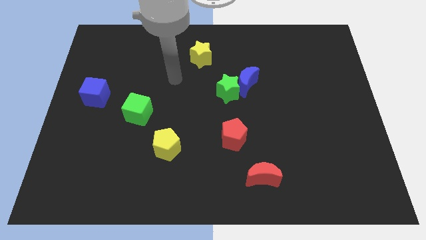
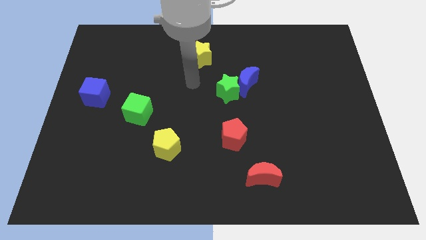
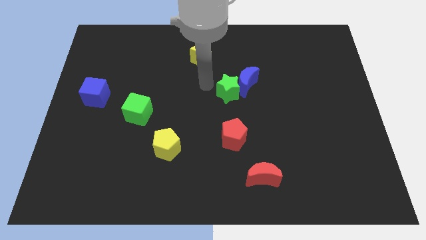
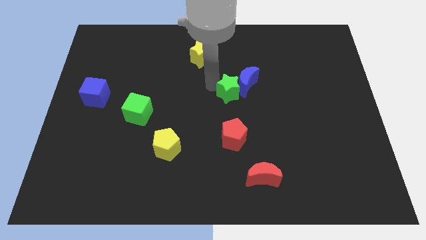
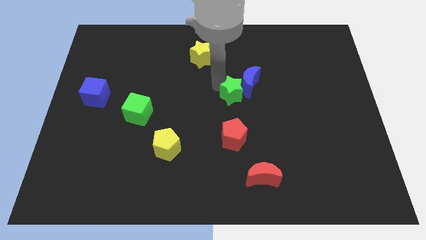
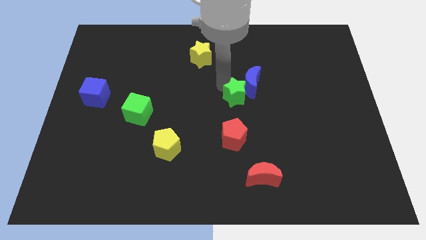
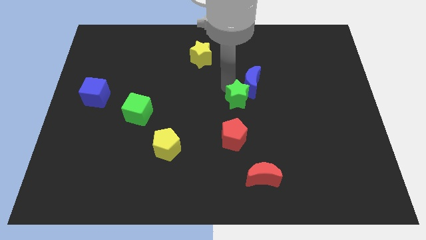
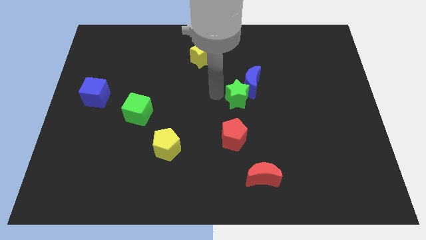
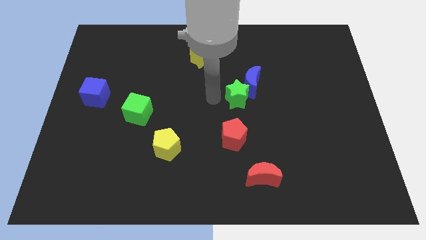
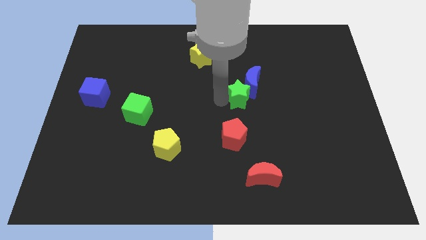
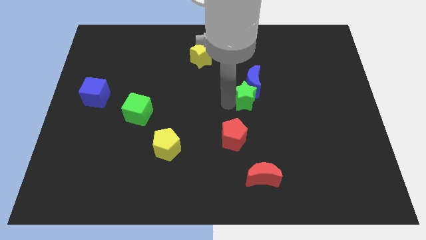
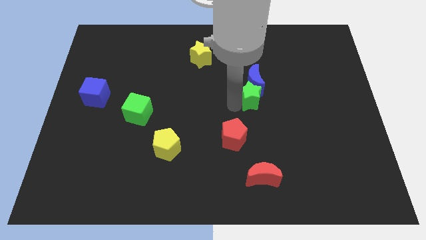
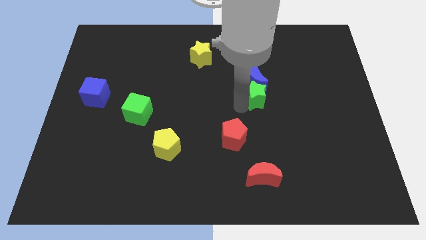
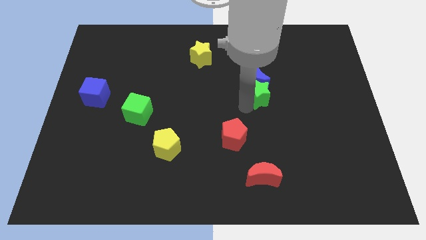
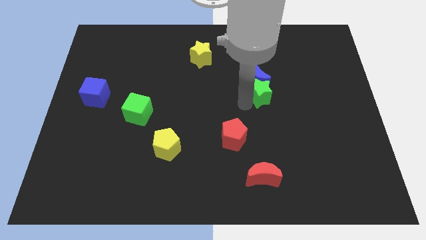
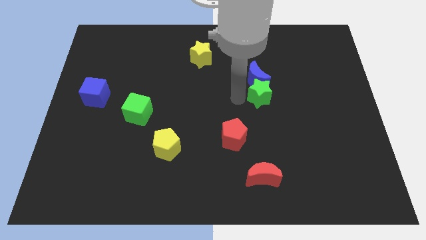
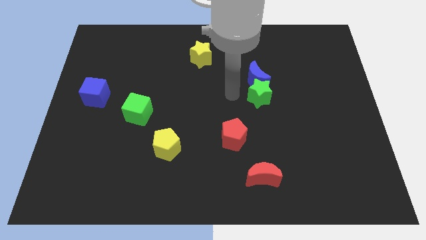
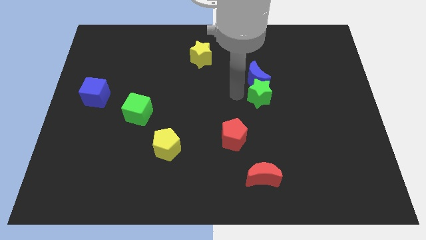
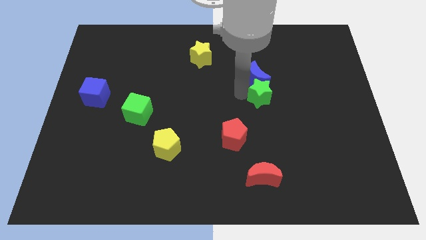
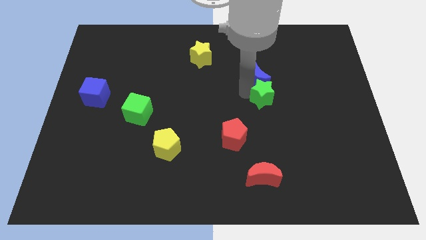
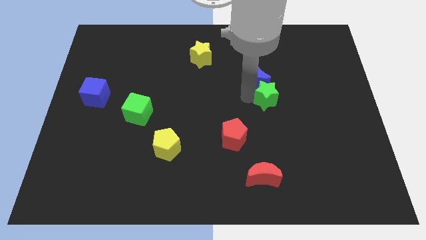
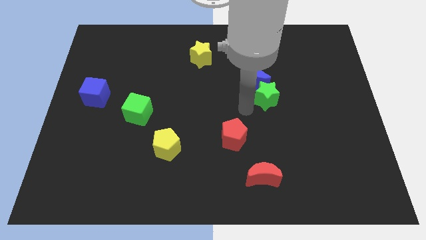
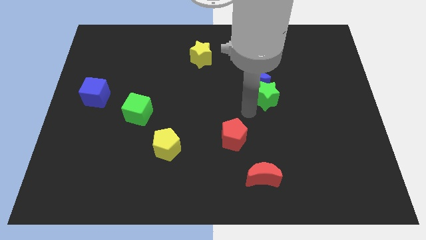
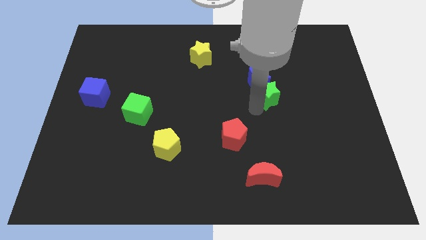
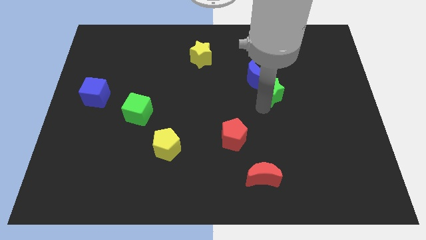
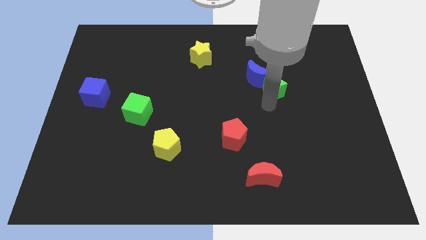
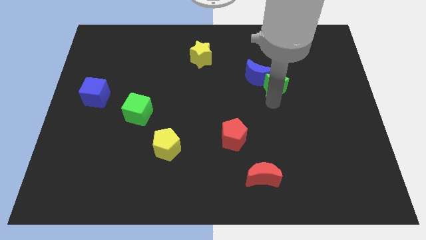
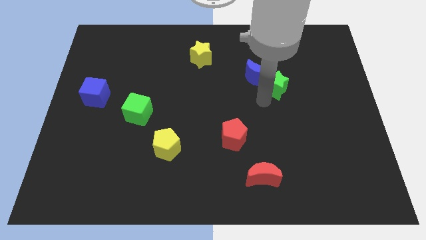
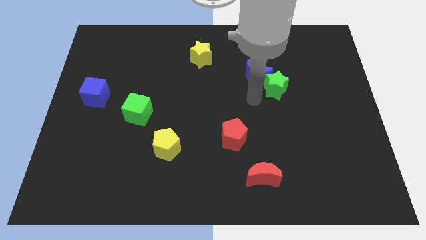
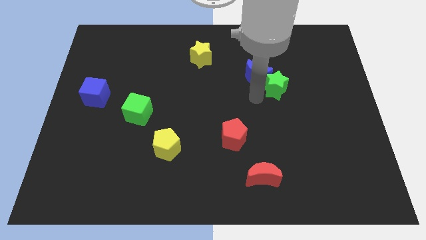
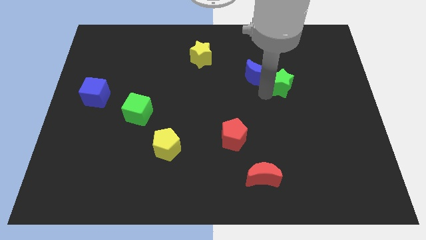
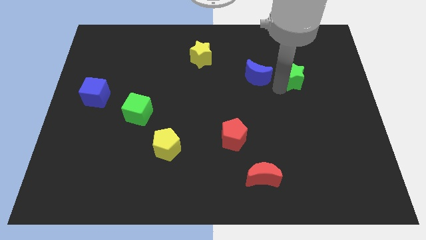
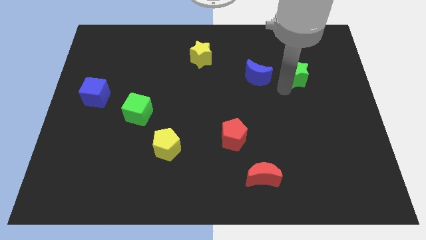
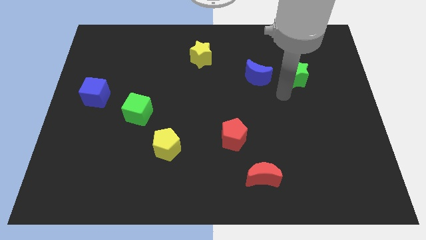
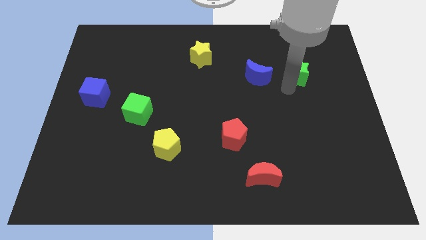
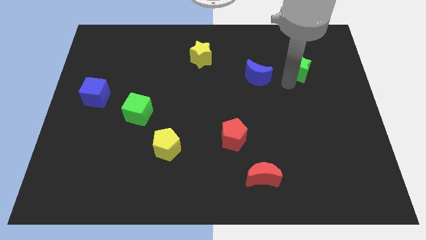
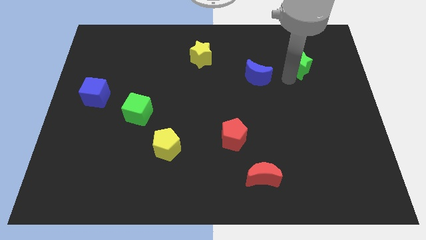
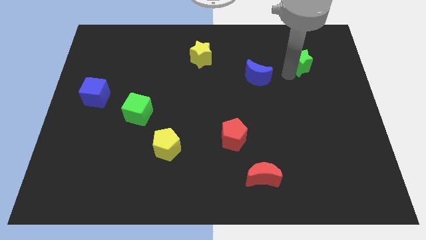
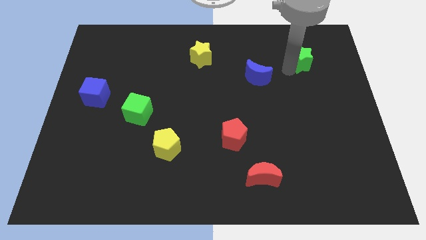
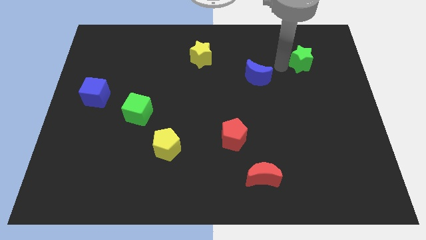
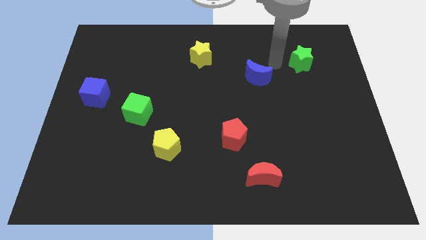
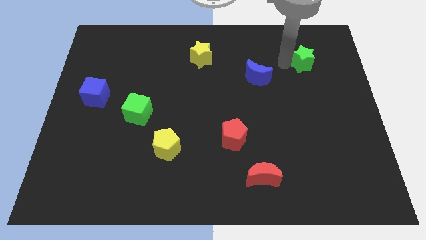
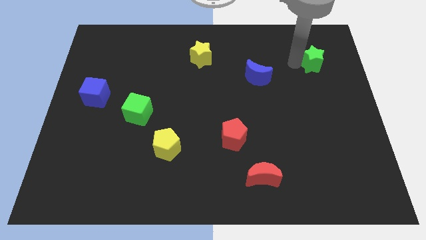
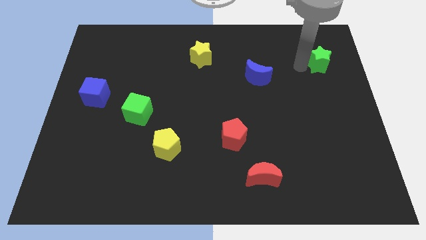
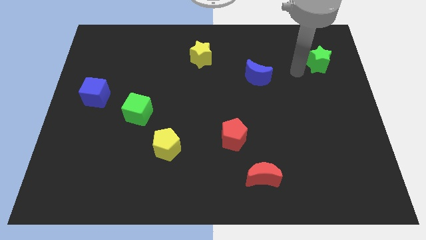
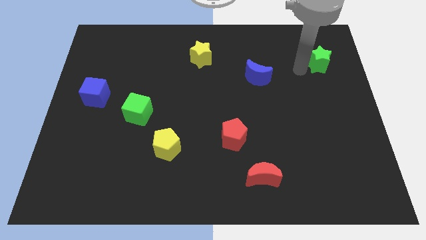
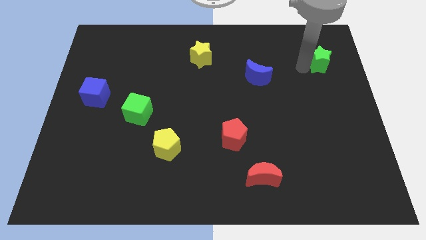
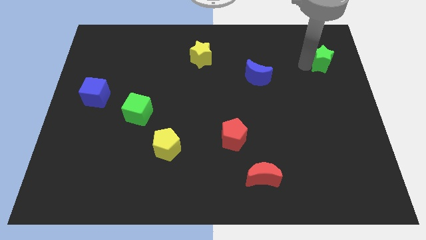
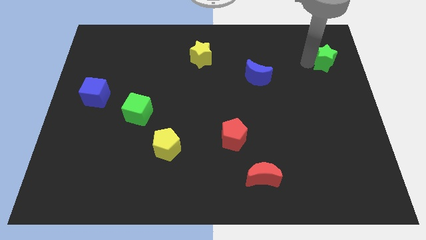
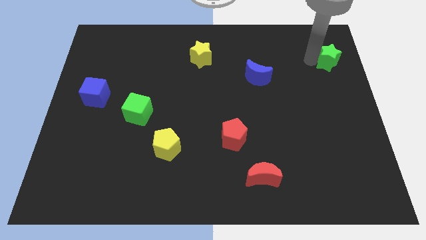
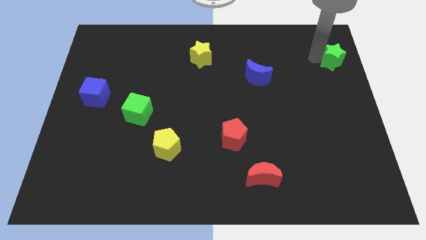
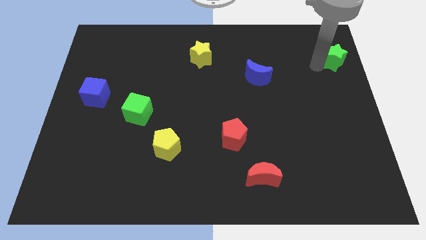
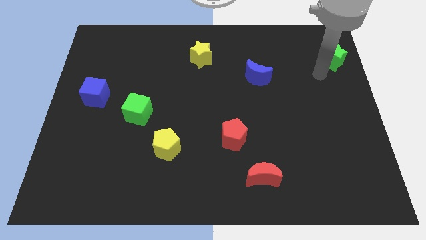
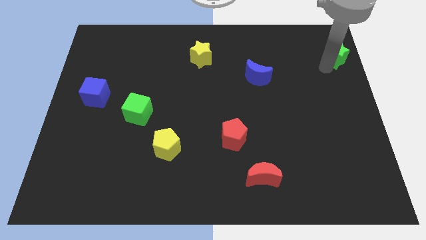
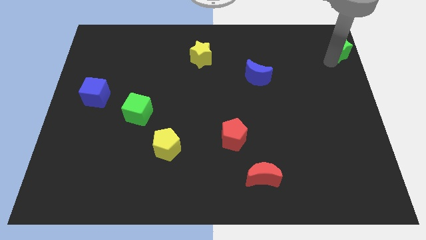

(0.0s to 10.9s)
put the green star to the top right corner

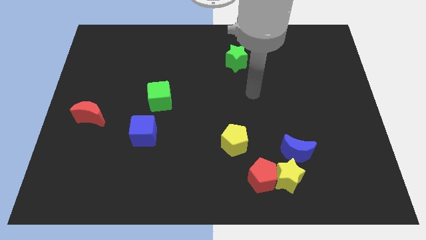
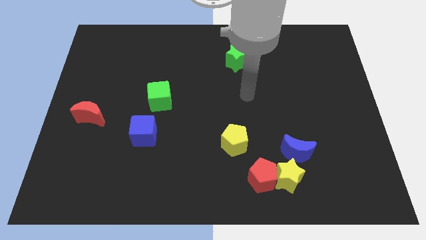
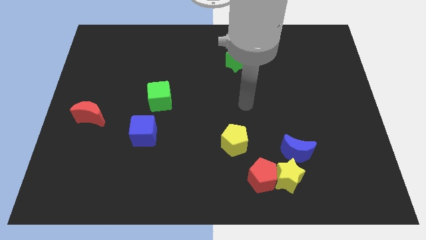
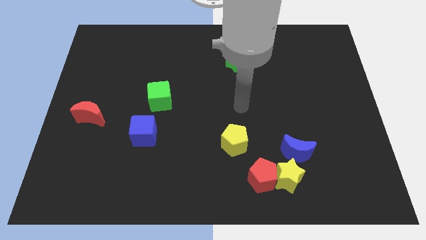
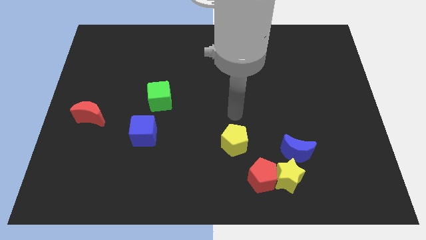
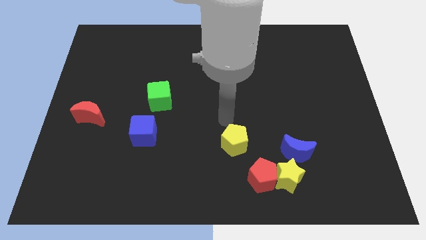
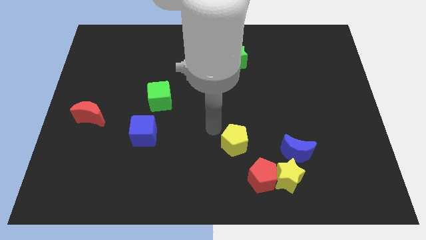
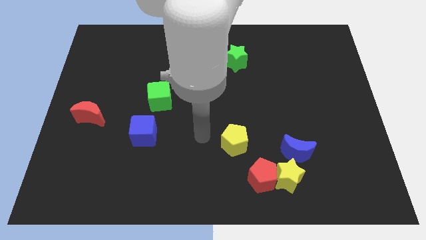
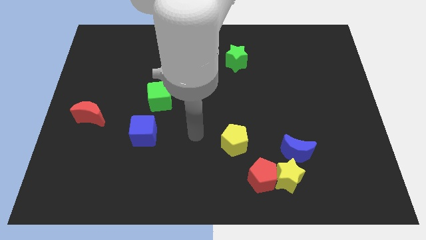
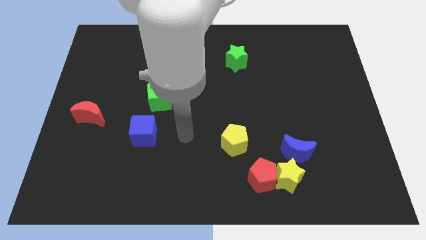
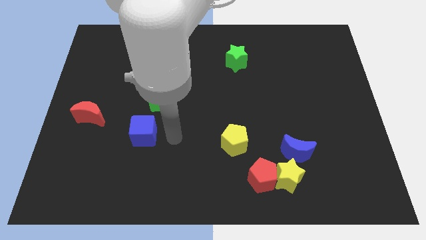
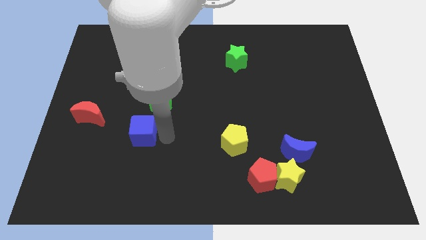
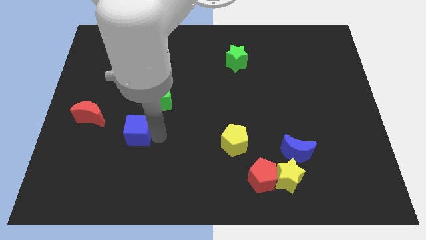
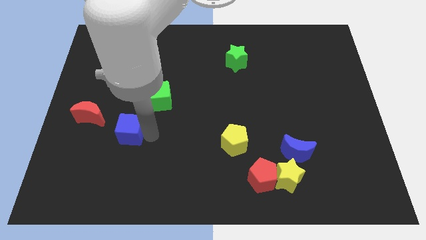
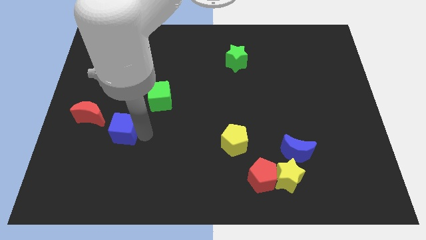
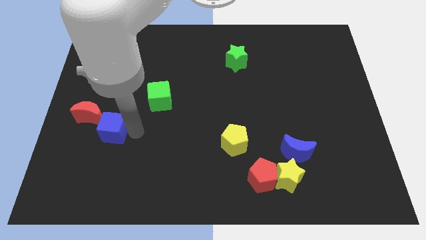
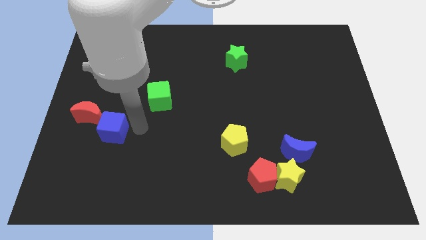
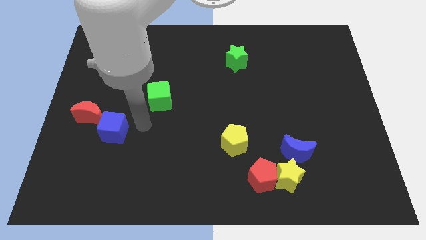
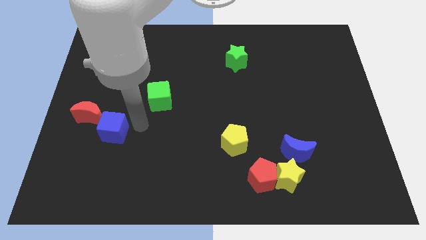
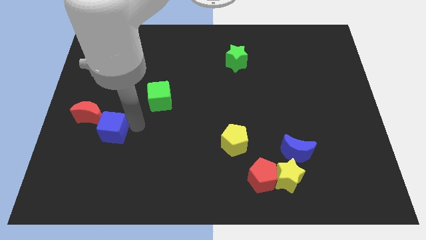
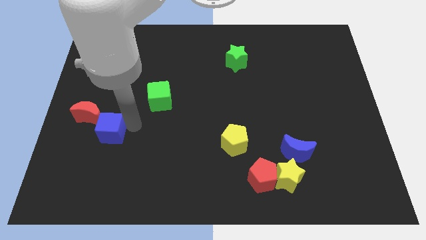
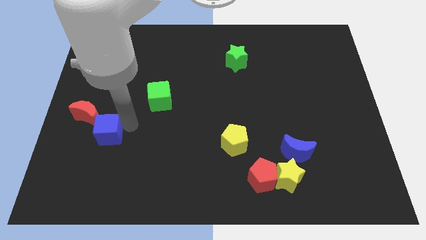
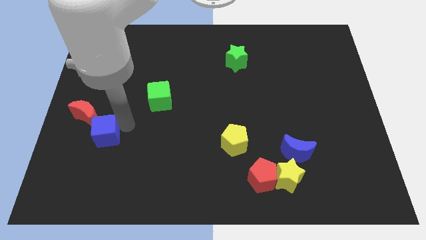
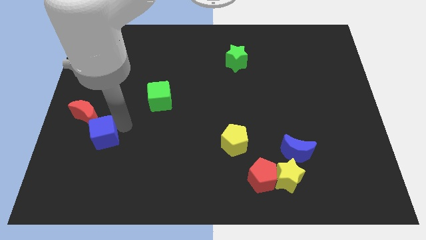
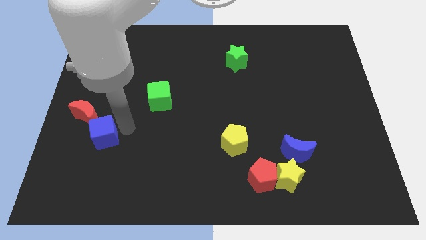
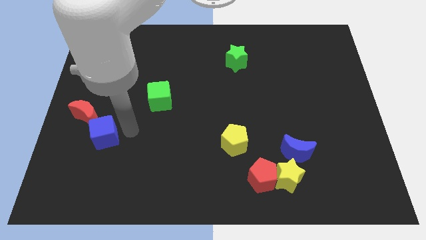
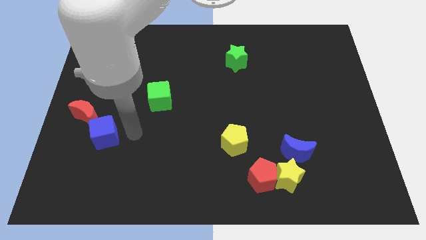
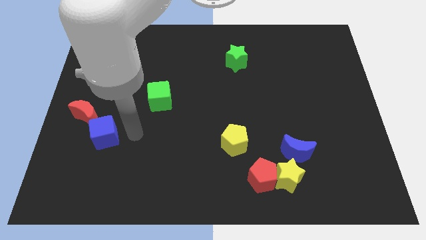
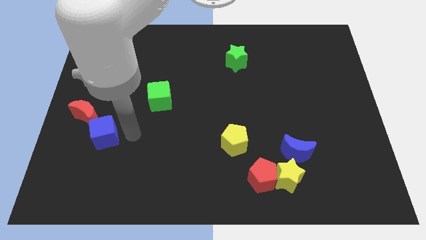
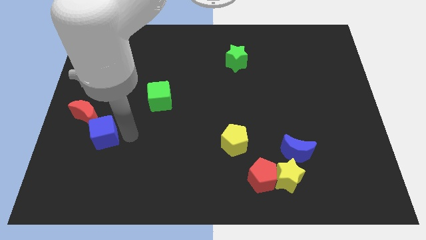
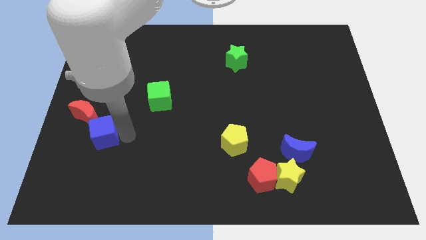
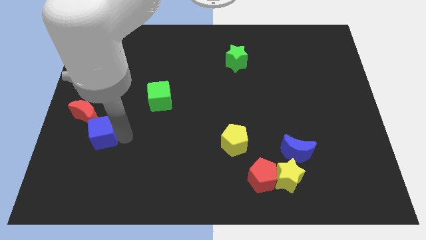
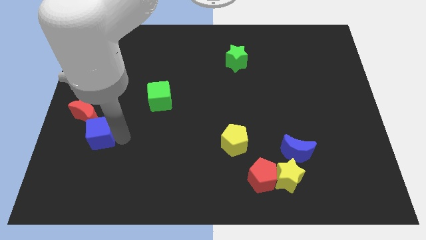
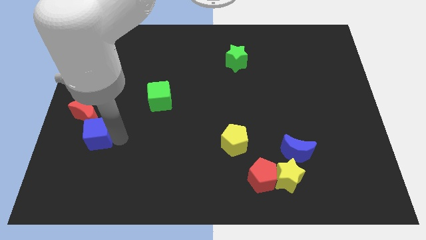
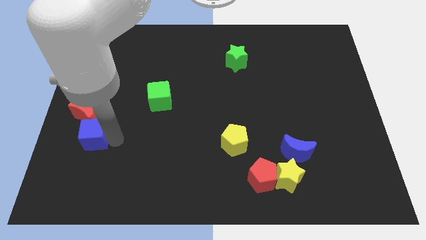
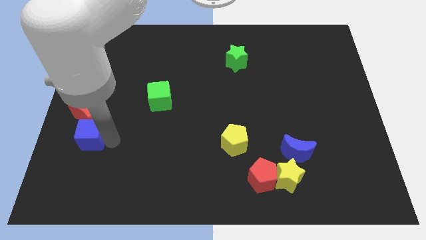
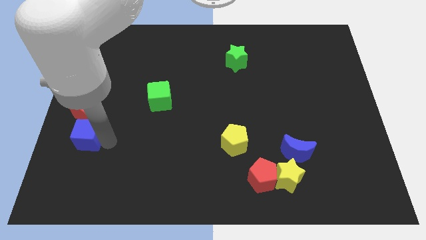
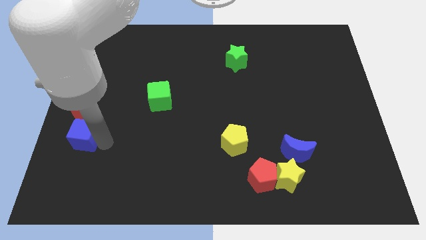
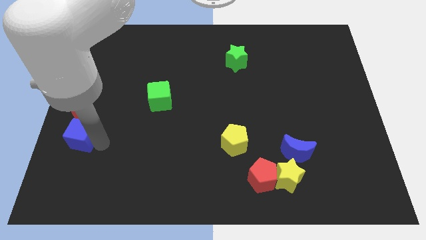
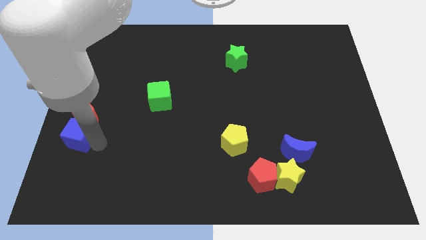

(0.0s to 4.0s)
slide the blue cube to the left side
